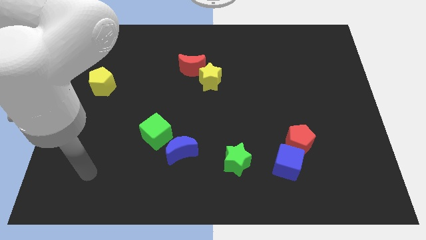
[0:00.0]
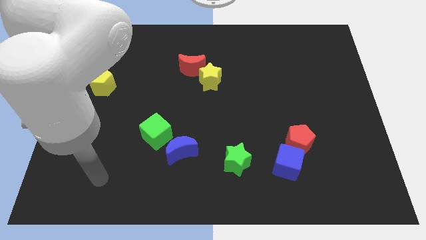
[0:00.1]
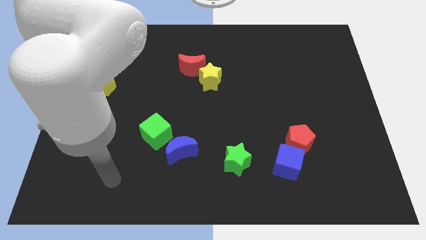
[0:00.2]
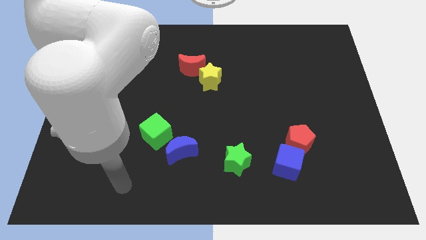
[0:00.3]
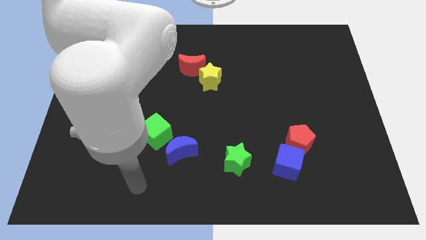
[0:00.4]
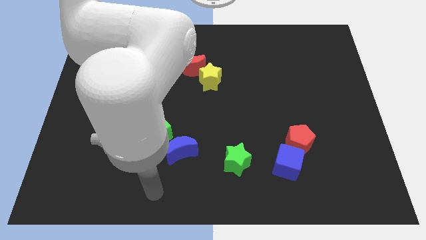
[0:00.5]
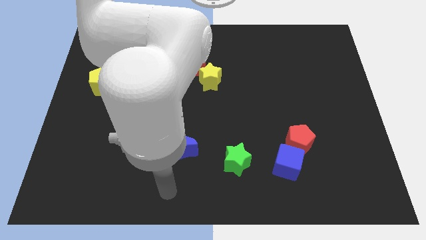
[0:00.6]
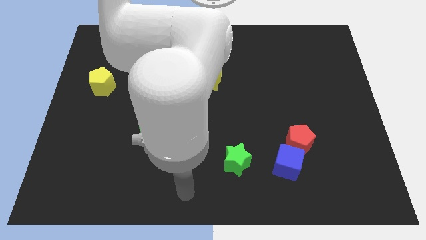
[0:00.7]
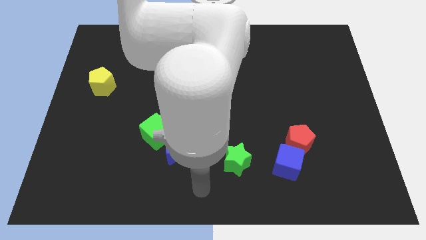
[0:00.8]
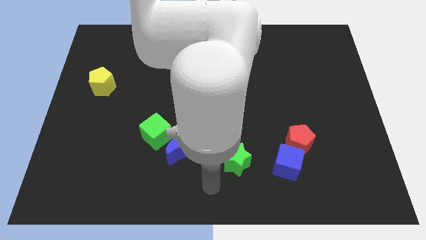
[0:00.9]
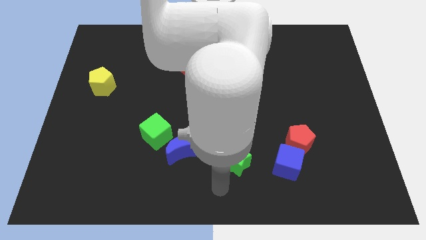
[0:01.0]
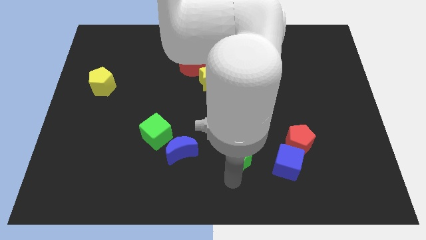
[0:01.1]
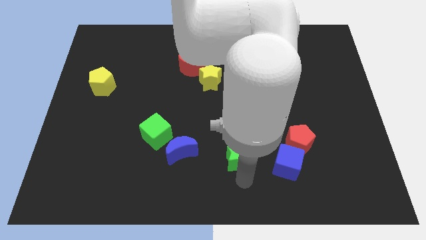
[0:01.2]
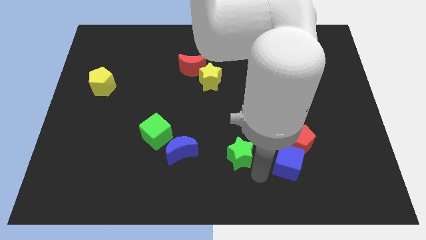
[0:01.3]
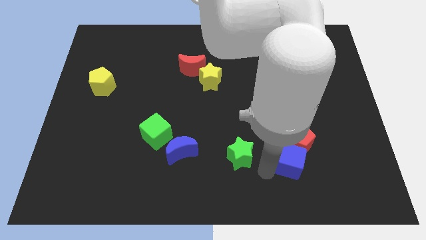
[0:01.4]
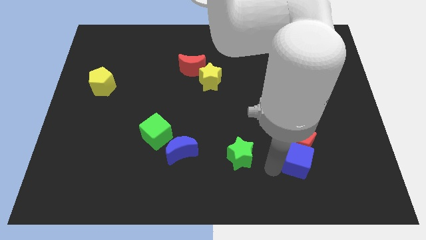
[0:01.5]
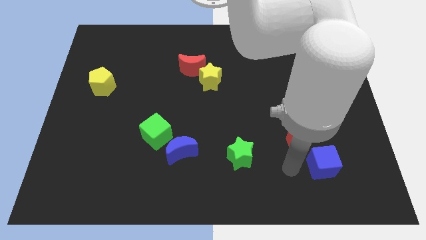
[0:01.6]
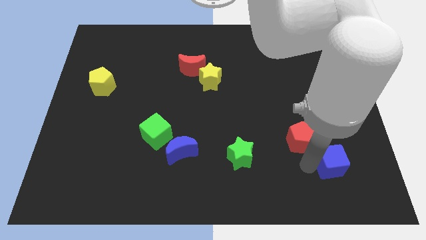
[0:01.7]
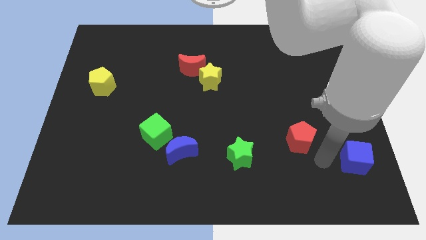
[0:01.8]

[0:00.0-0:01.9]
separate the red pentagon from the blue cube

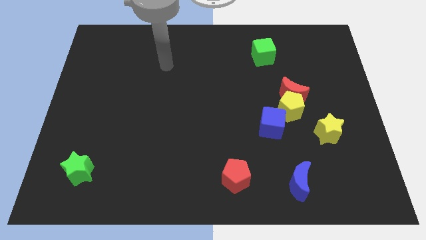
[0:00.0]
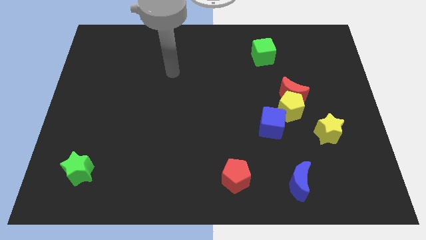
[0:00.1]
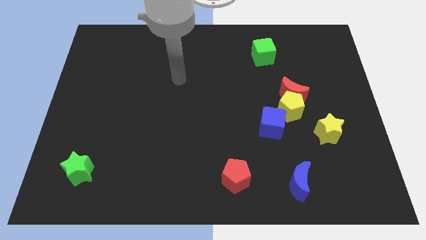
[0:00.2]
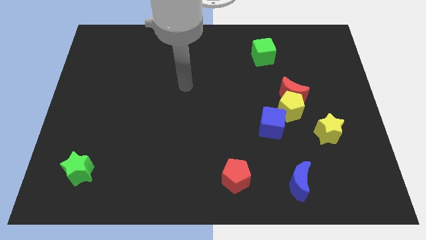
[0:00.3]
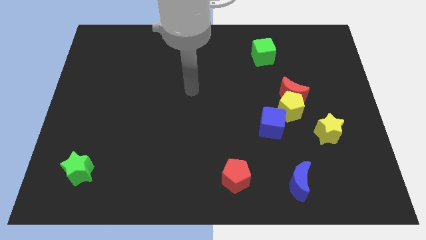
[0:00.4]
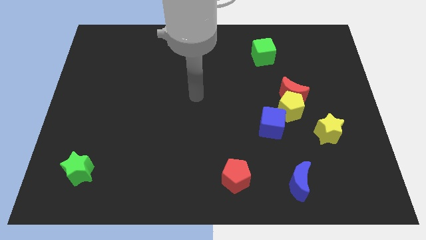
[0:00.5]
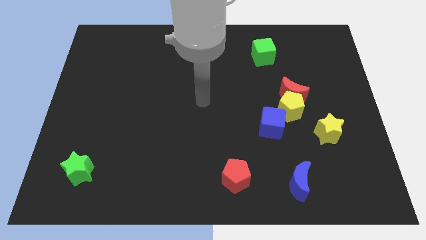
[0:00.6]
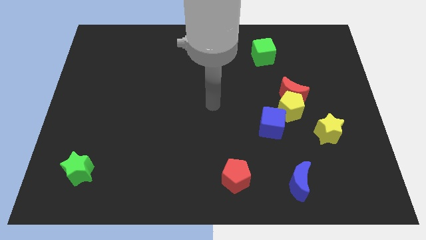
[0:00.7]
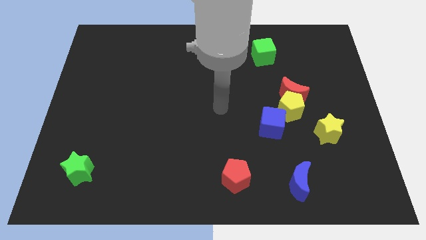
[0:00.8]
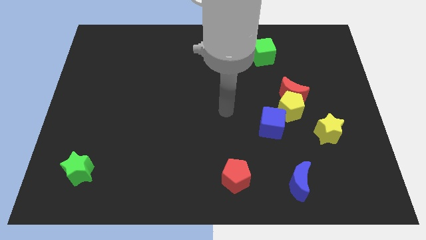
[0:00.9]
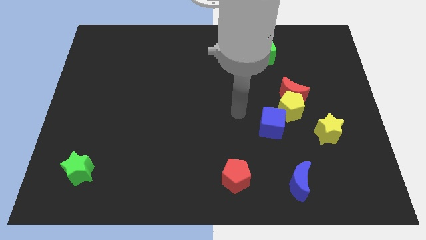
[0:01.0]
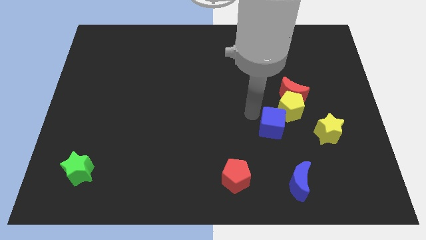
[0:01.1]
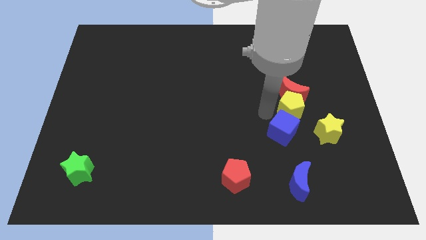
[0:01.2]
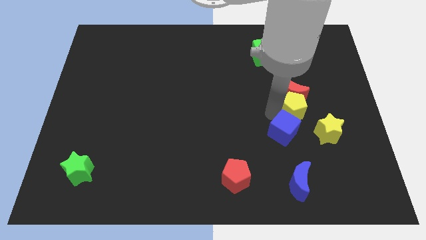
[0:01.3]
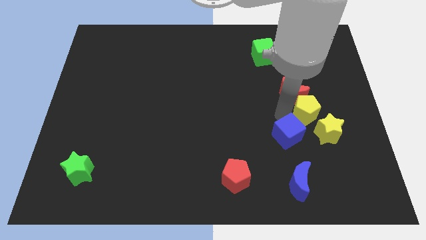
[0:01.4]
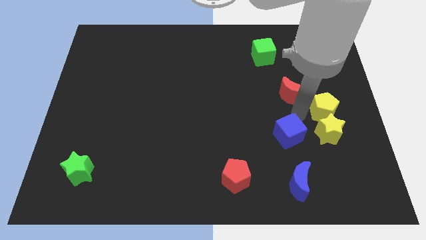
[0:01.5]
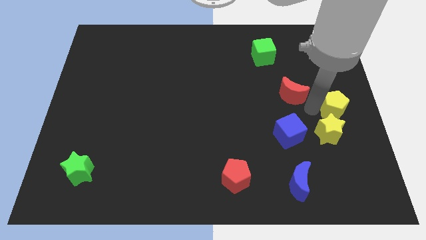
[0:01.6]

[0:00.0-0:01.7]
pull the red moon apart from the yellow pentagon

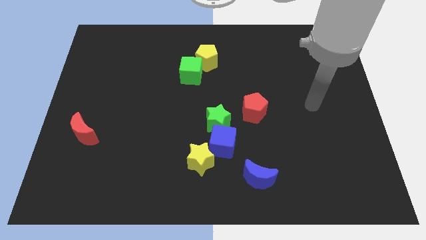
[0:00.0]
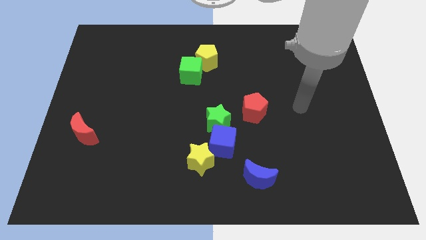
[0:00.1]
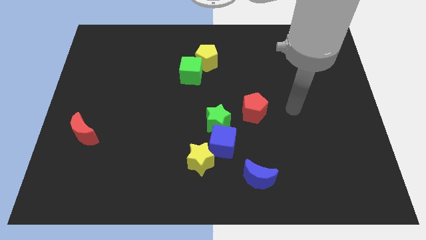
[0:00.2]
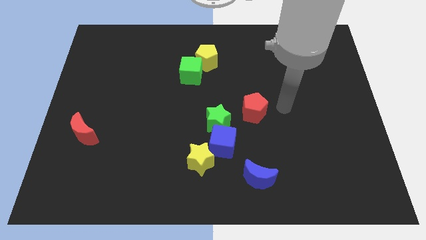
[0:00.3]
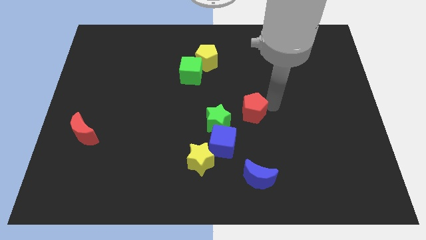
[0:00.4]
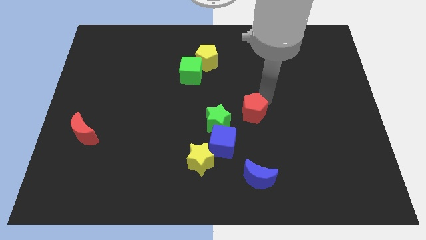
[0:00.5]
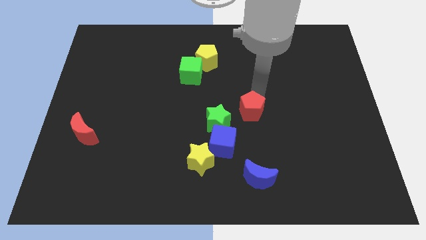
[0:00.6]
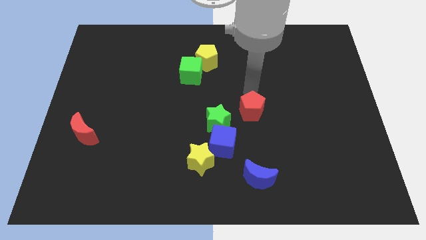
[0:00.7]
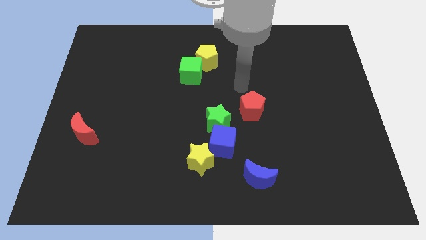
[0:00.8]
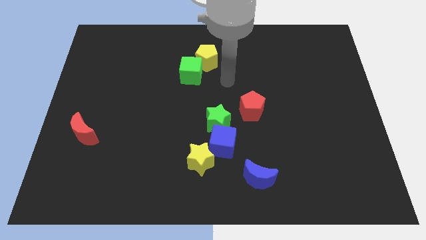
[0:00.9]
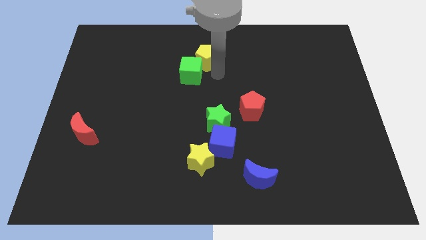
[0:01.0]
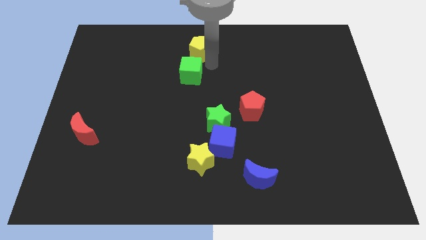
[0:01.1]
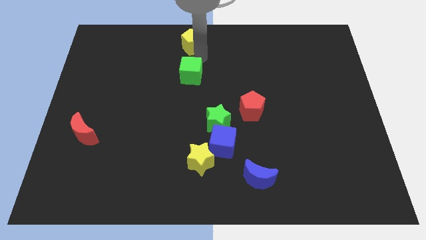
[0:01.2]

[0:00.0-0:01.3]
pull the green cube apart from the yellow pentagon

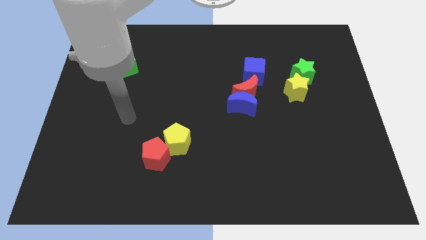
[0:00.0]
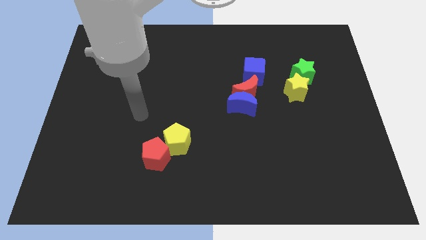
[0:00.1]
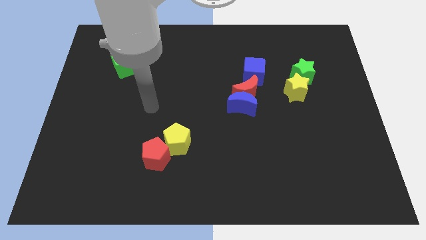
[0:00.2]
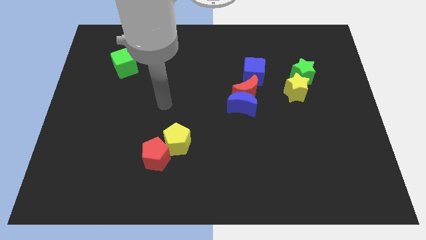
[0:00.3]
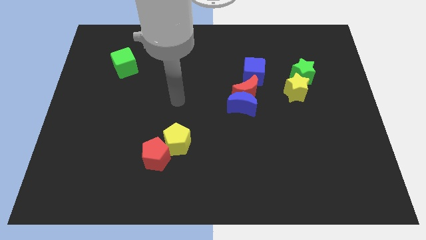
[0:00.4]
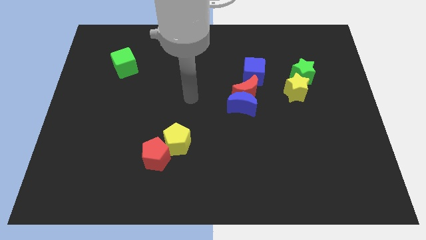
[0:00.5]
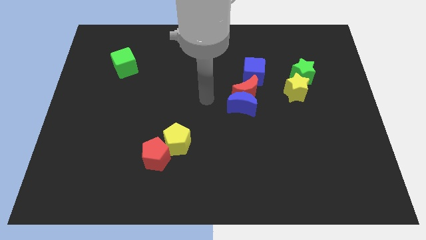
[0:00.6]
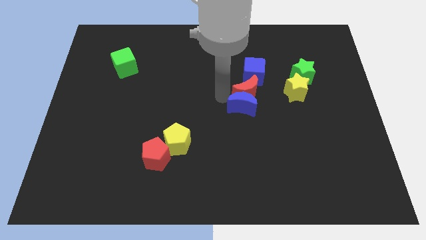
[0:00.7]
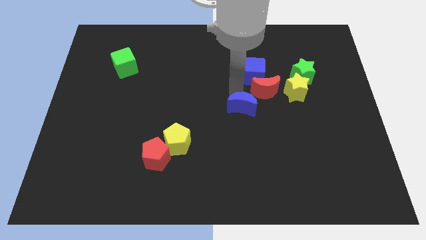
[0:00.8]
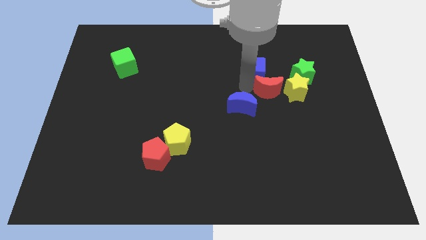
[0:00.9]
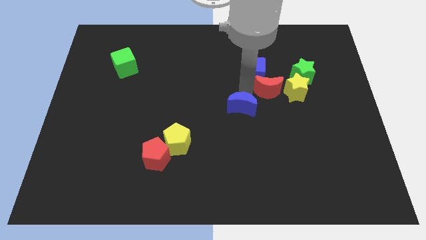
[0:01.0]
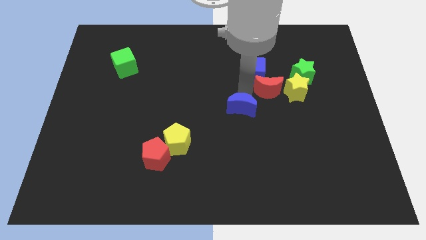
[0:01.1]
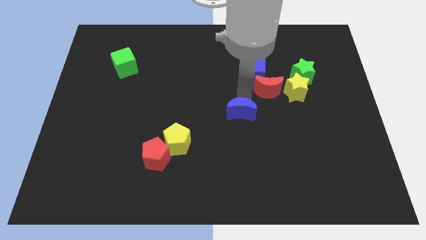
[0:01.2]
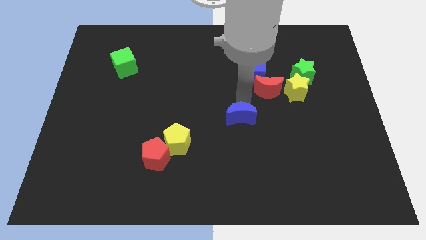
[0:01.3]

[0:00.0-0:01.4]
pull the blue moon apart from the red moon

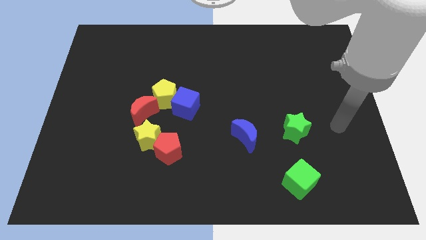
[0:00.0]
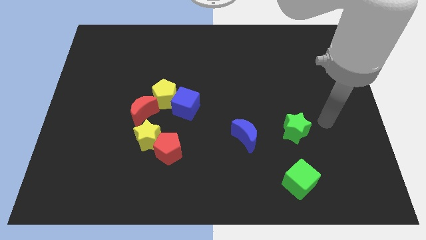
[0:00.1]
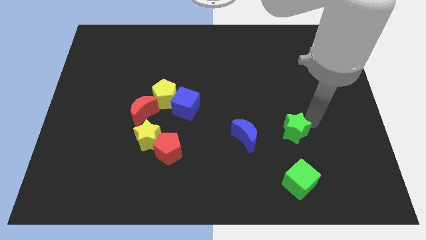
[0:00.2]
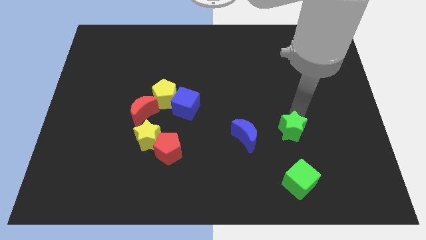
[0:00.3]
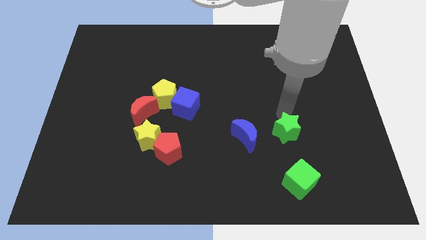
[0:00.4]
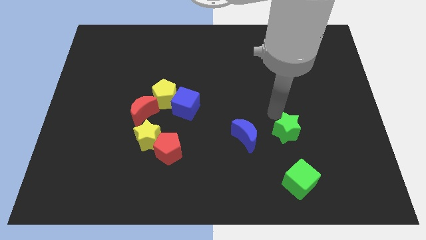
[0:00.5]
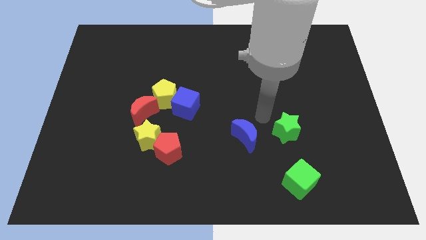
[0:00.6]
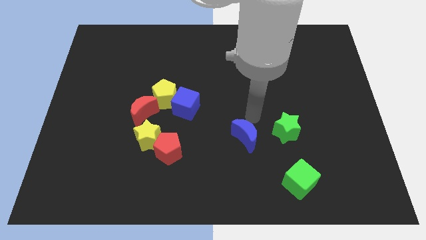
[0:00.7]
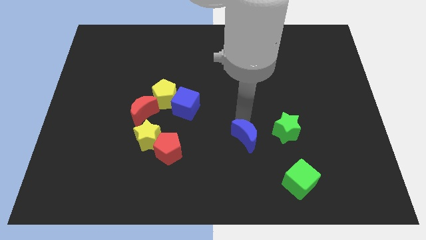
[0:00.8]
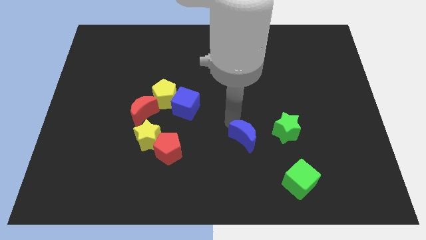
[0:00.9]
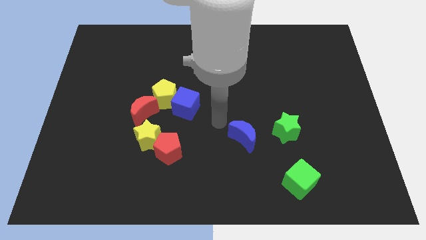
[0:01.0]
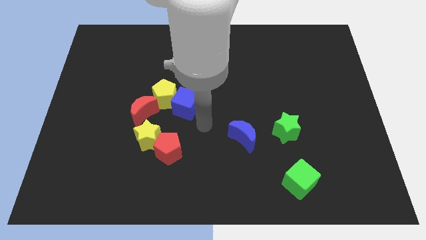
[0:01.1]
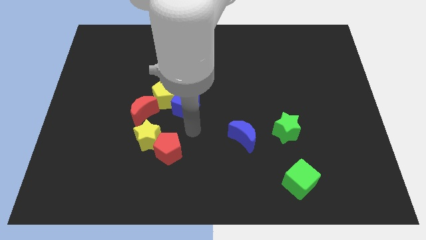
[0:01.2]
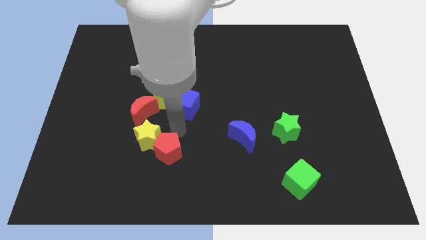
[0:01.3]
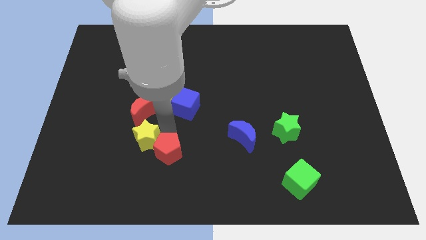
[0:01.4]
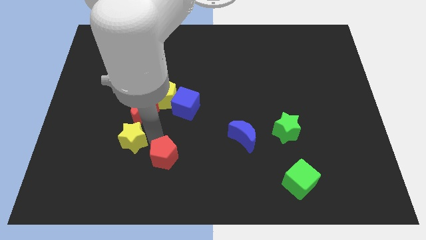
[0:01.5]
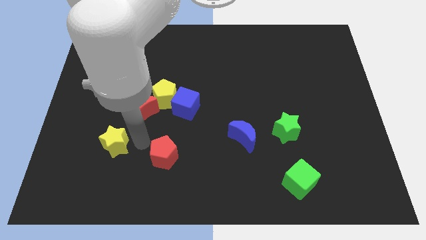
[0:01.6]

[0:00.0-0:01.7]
pull the red pentagon apart from the yellow star

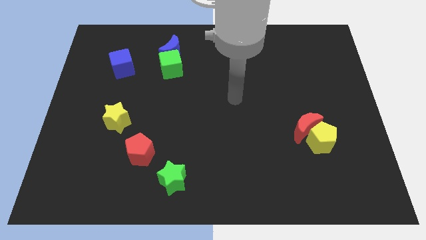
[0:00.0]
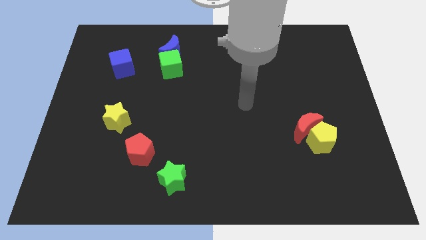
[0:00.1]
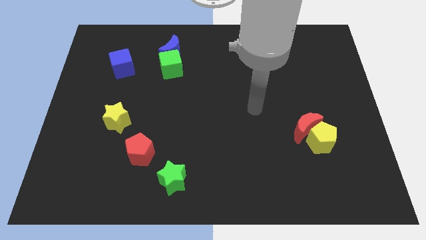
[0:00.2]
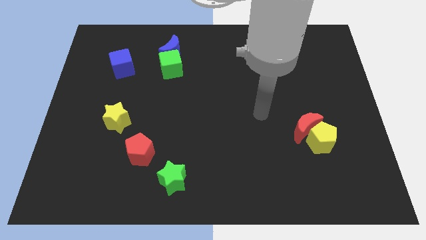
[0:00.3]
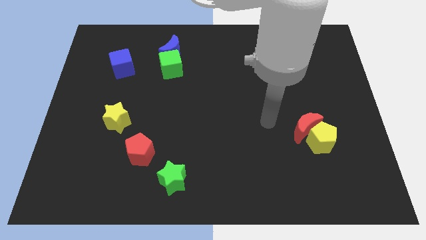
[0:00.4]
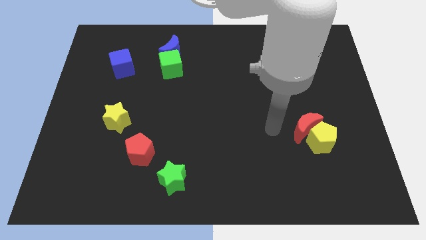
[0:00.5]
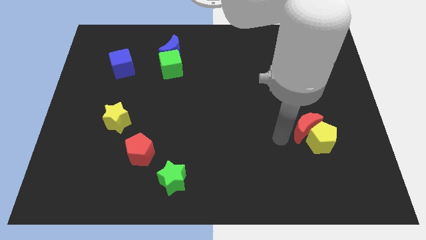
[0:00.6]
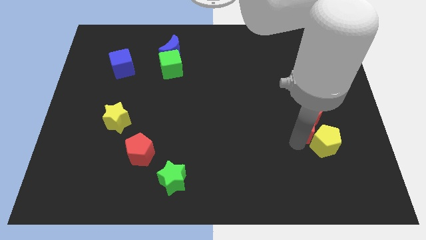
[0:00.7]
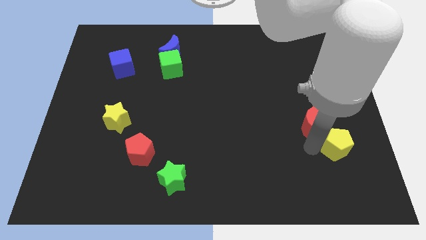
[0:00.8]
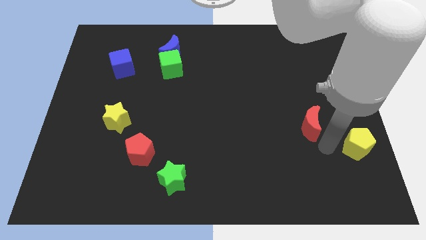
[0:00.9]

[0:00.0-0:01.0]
separate the red moon from the yellow pentagon

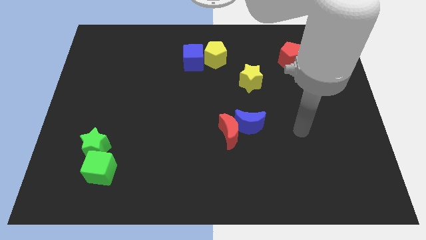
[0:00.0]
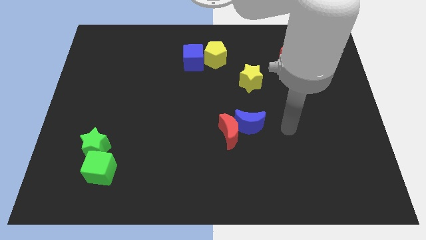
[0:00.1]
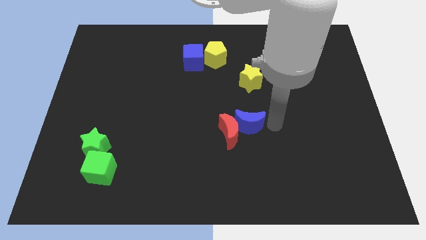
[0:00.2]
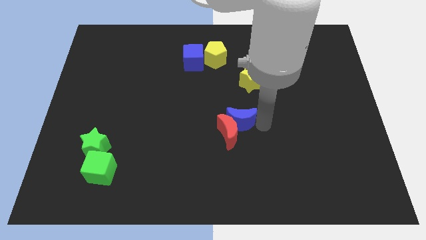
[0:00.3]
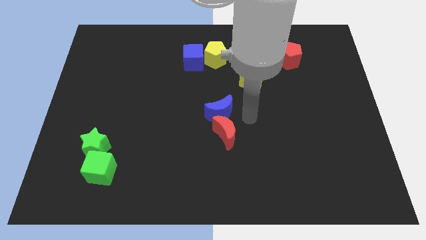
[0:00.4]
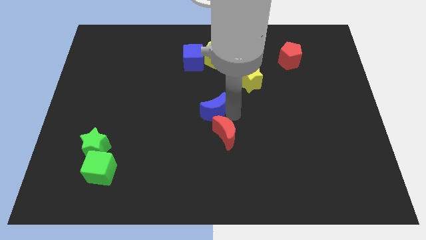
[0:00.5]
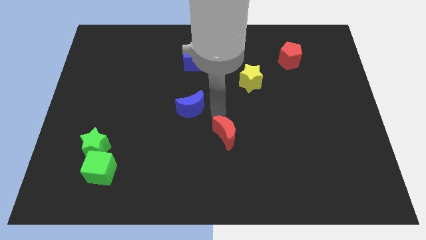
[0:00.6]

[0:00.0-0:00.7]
pull the red moon apart from the blue moon
